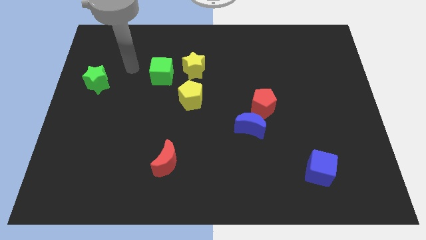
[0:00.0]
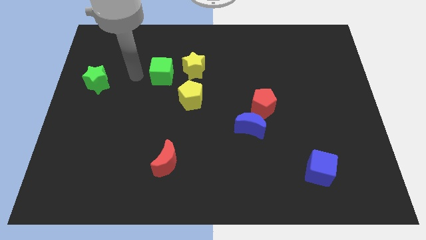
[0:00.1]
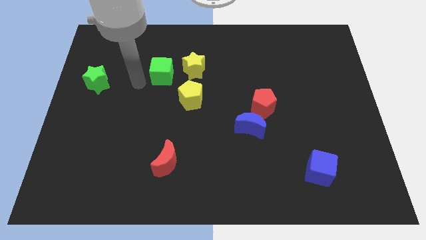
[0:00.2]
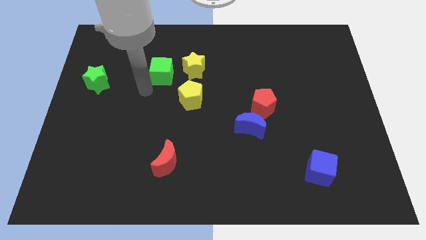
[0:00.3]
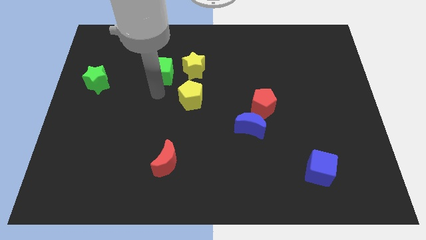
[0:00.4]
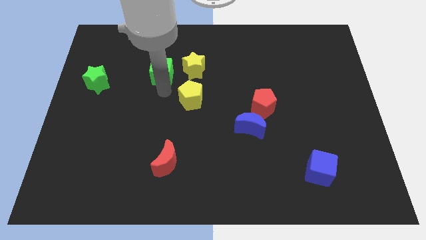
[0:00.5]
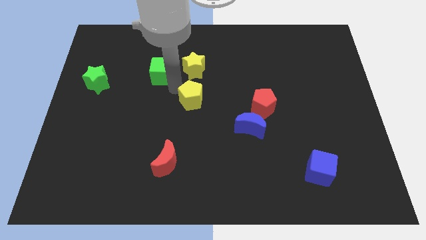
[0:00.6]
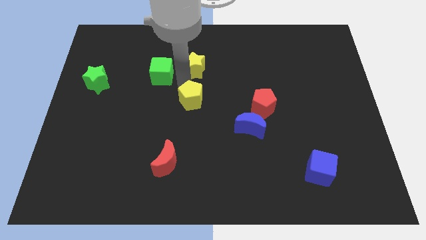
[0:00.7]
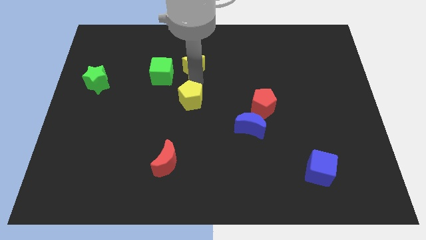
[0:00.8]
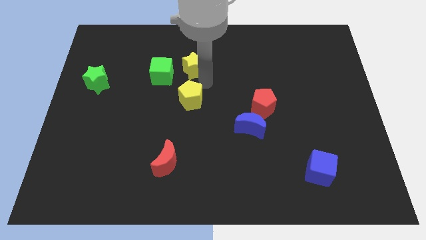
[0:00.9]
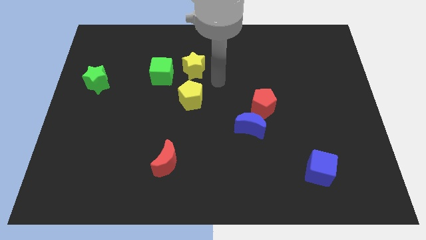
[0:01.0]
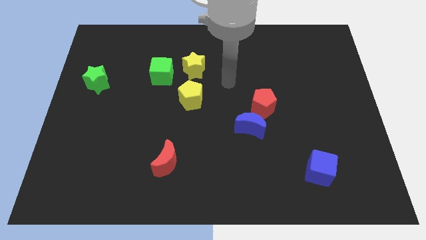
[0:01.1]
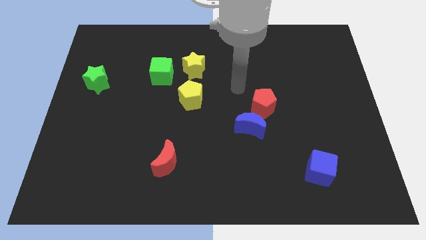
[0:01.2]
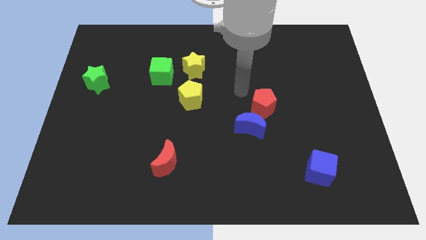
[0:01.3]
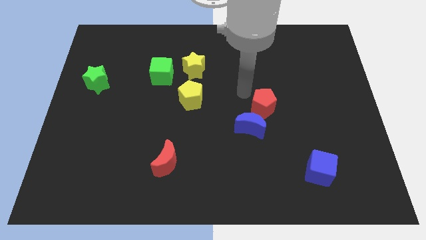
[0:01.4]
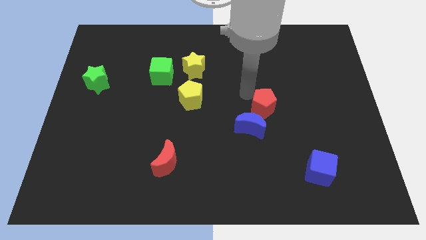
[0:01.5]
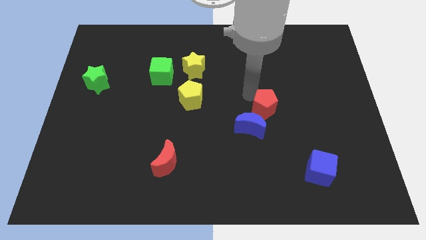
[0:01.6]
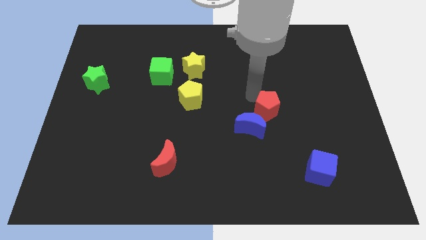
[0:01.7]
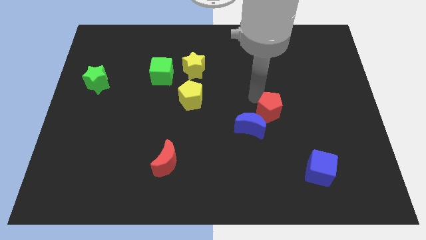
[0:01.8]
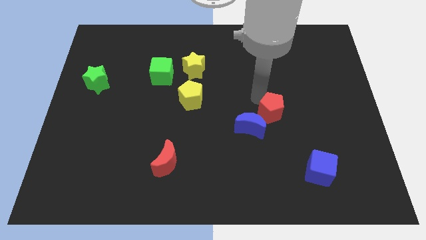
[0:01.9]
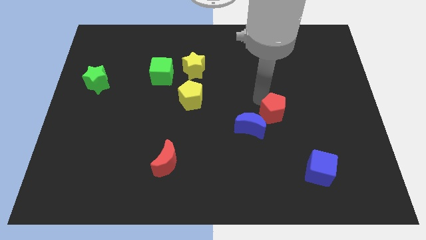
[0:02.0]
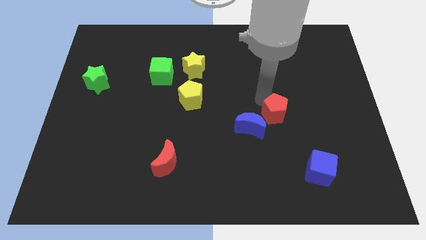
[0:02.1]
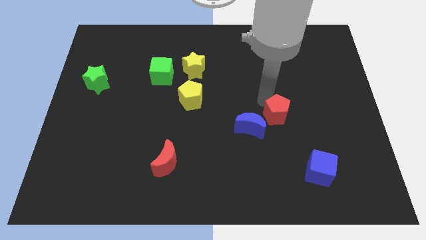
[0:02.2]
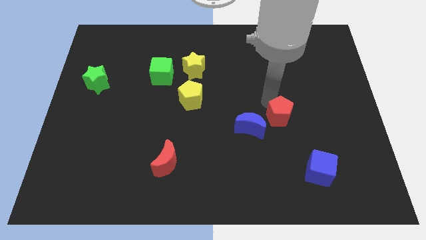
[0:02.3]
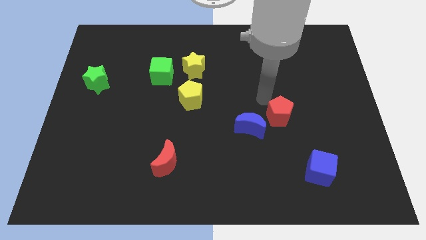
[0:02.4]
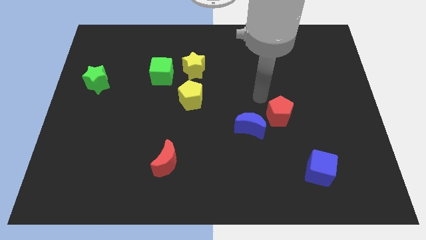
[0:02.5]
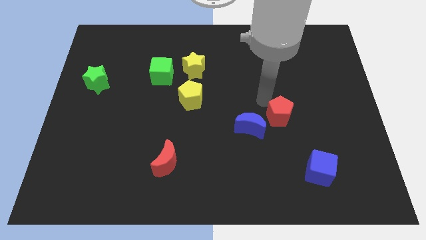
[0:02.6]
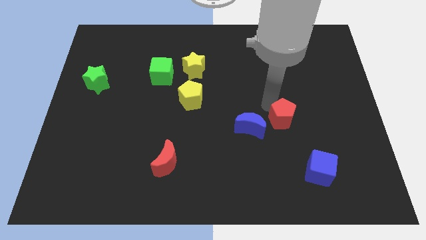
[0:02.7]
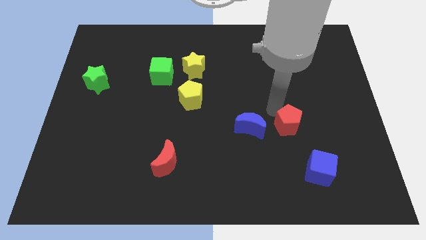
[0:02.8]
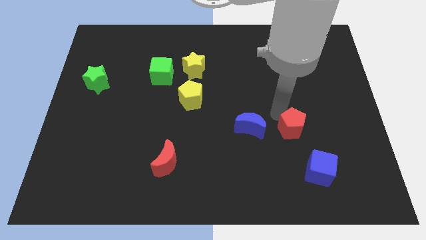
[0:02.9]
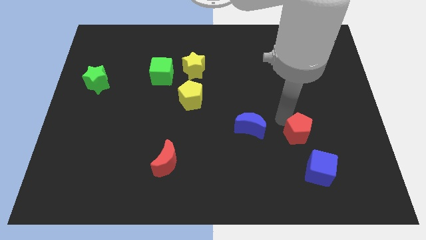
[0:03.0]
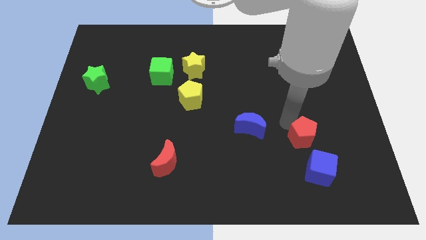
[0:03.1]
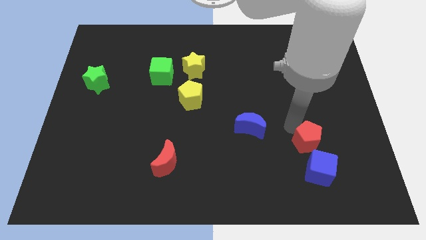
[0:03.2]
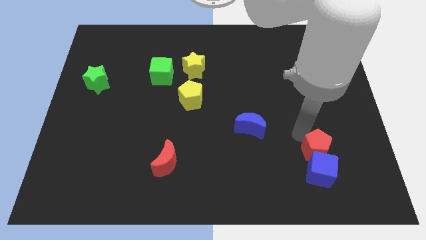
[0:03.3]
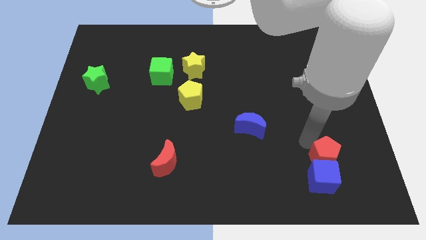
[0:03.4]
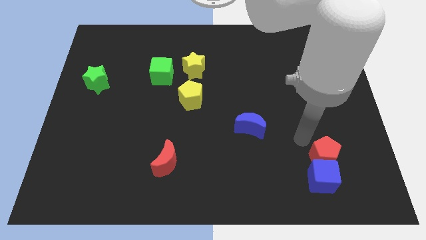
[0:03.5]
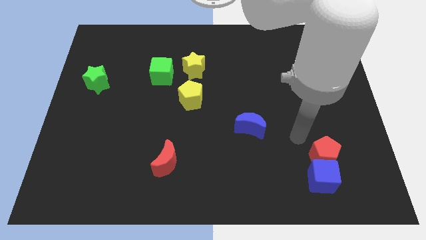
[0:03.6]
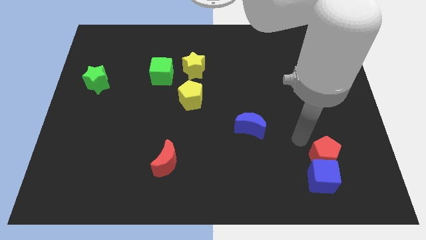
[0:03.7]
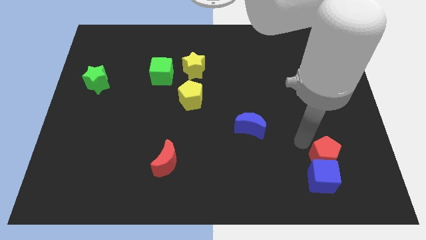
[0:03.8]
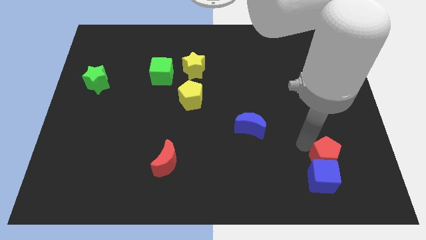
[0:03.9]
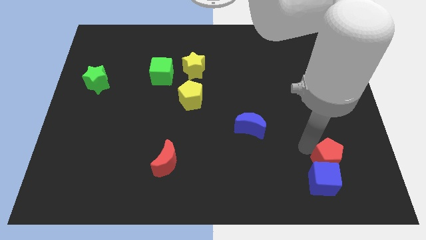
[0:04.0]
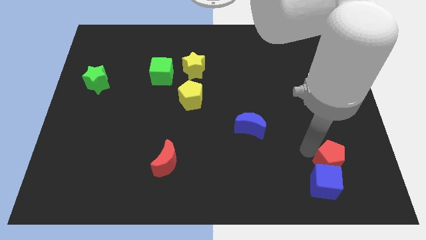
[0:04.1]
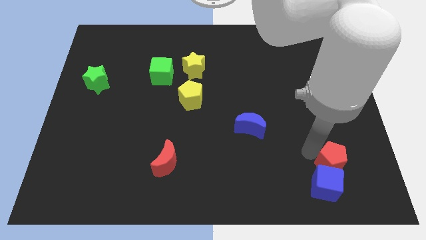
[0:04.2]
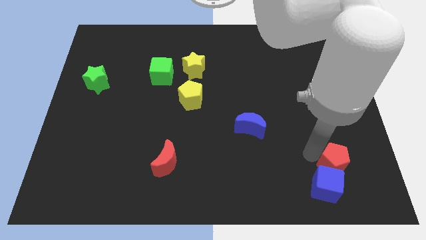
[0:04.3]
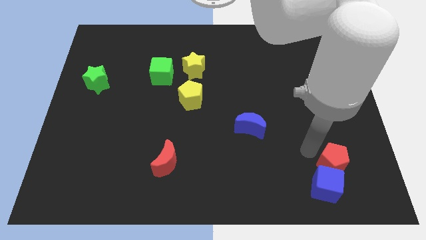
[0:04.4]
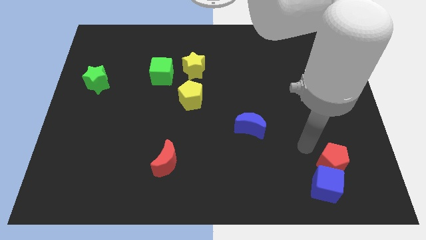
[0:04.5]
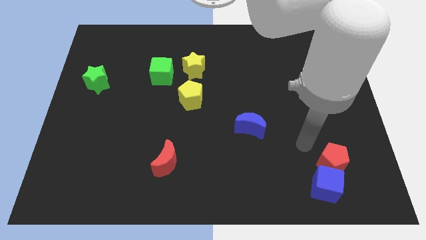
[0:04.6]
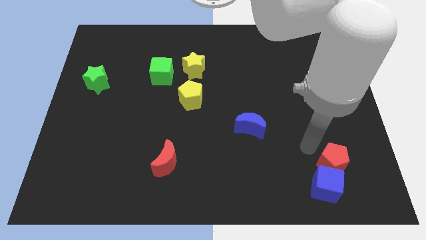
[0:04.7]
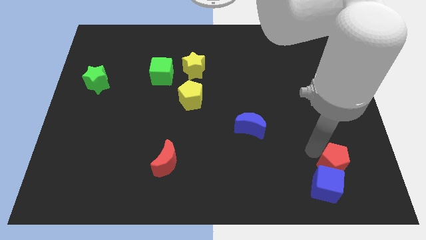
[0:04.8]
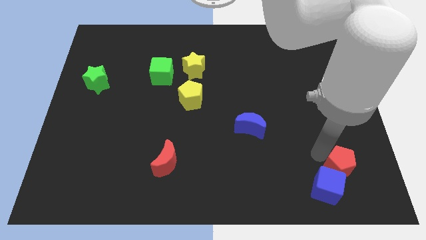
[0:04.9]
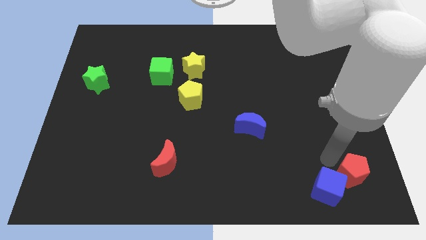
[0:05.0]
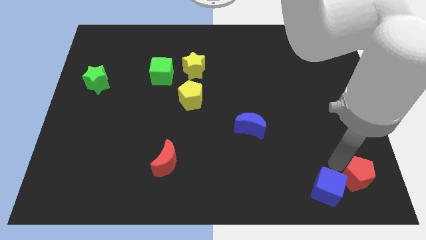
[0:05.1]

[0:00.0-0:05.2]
slide the red pentagon to the bottom right

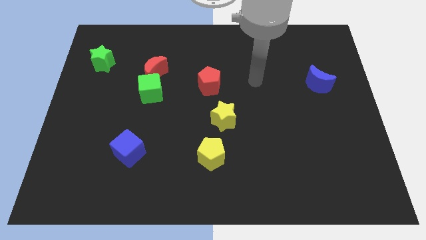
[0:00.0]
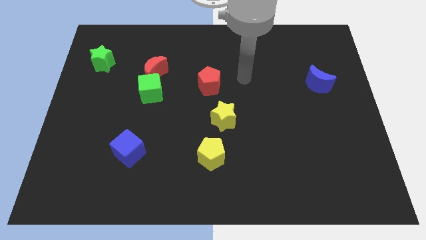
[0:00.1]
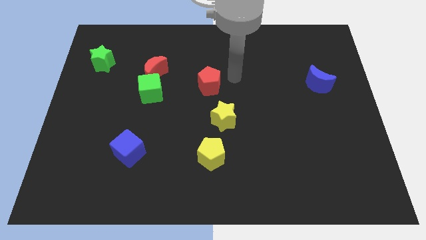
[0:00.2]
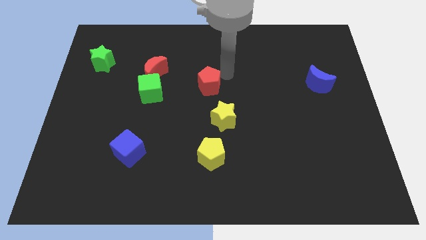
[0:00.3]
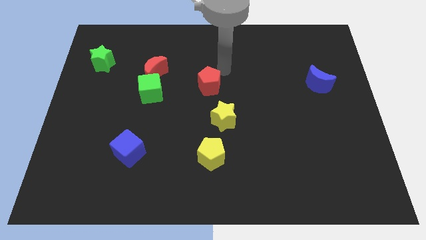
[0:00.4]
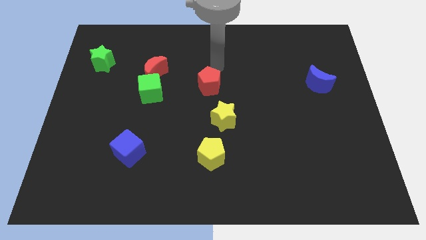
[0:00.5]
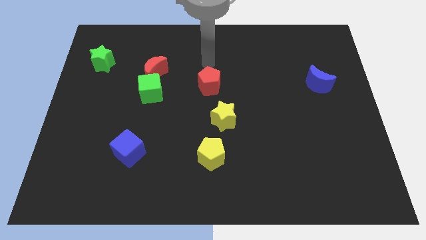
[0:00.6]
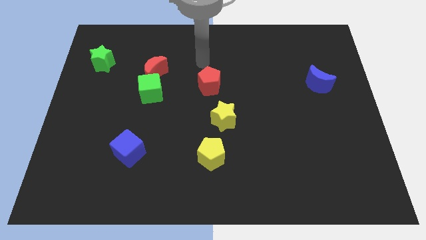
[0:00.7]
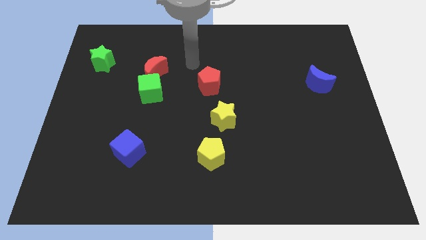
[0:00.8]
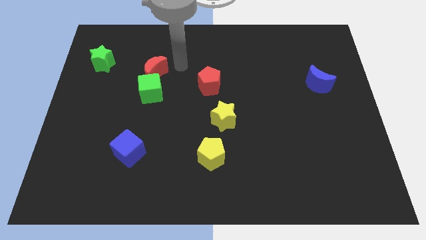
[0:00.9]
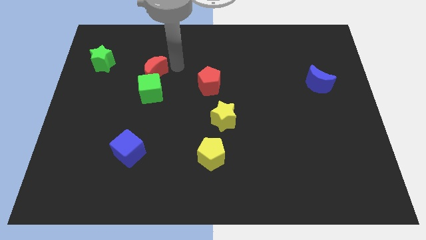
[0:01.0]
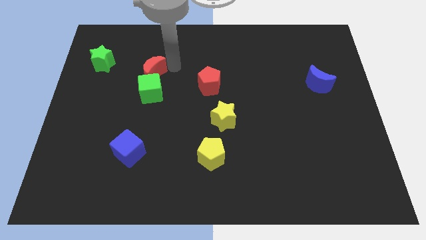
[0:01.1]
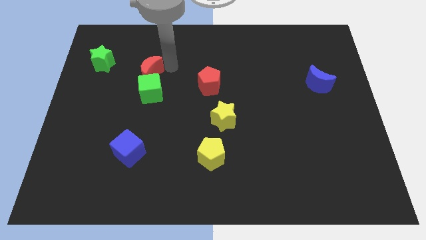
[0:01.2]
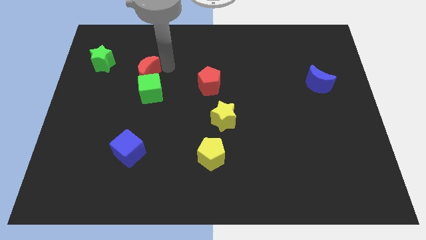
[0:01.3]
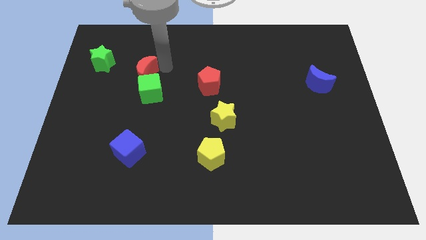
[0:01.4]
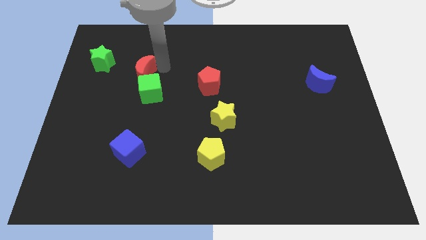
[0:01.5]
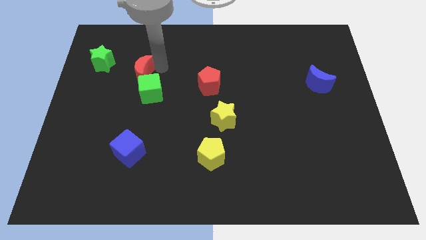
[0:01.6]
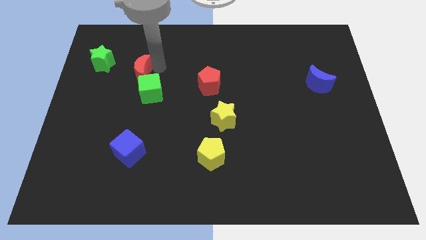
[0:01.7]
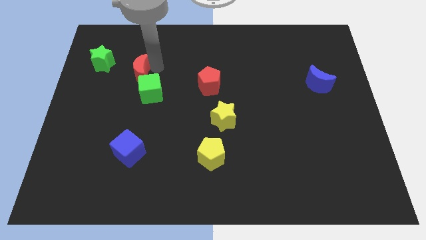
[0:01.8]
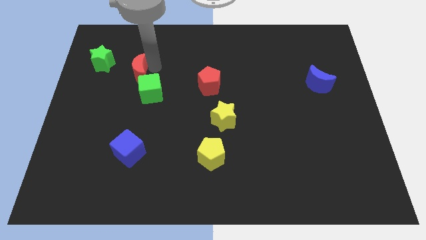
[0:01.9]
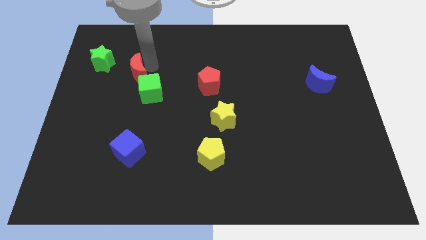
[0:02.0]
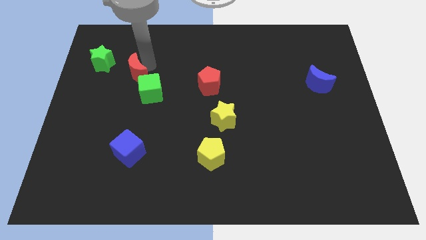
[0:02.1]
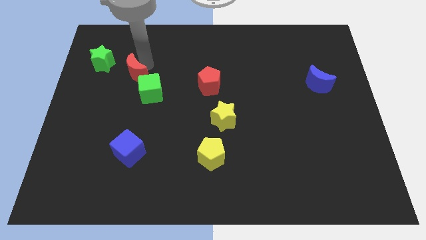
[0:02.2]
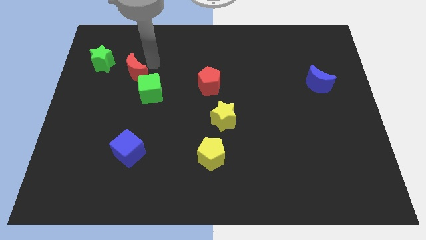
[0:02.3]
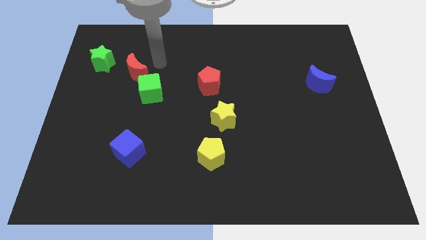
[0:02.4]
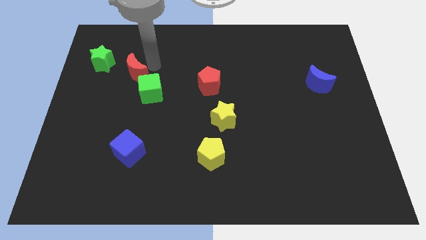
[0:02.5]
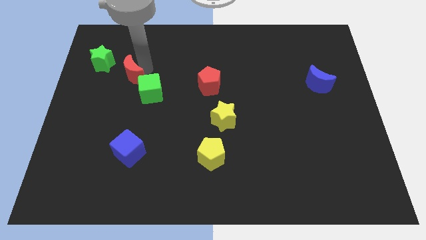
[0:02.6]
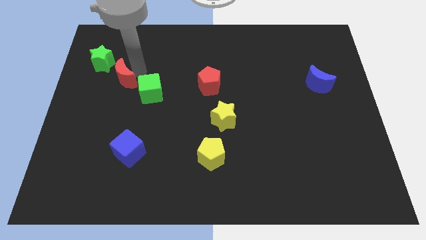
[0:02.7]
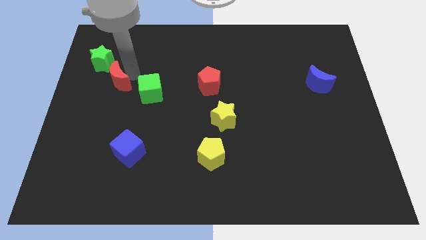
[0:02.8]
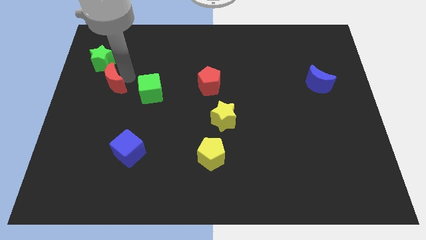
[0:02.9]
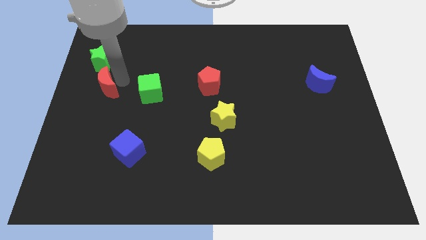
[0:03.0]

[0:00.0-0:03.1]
move the red moon to the left side of the board
